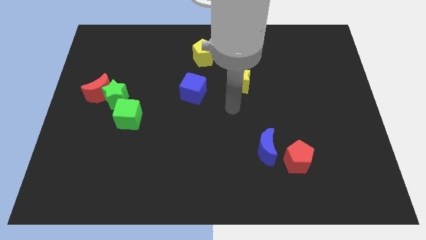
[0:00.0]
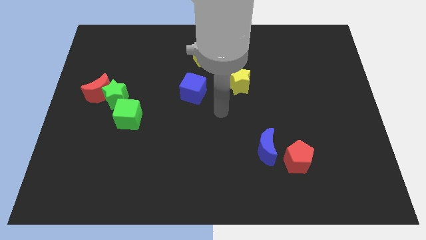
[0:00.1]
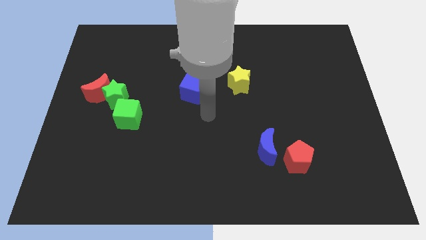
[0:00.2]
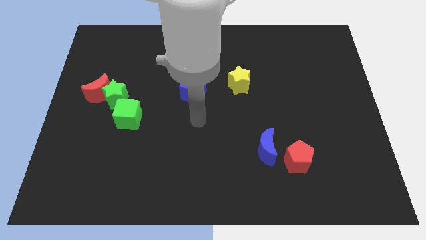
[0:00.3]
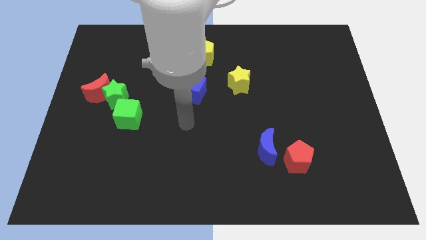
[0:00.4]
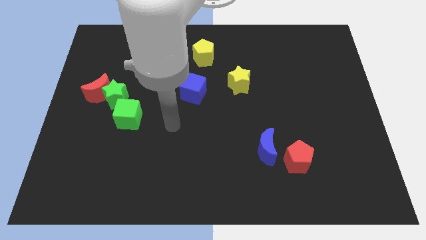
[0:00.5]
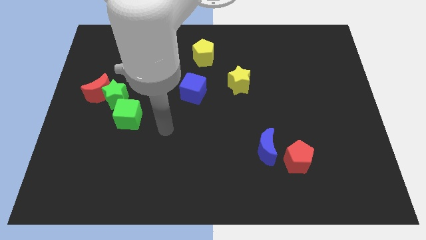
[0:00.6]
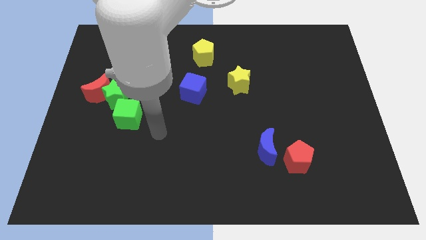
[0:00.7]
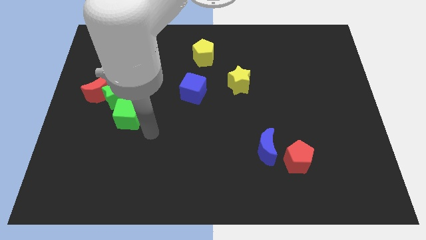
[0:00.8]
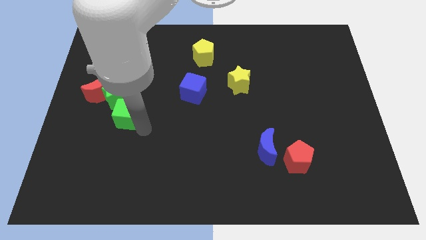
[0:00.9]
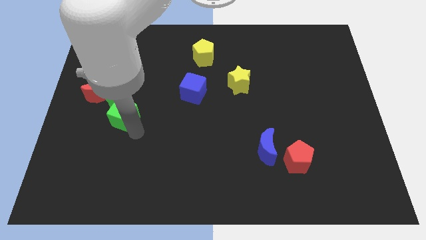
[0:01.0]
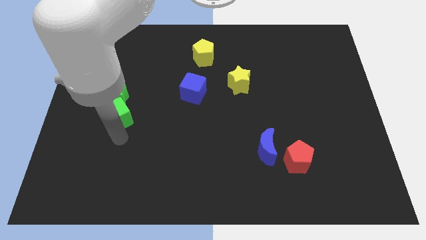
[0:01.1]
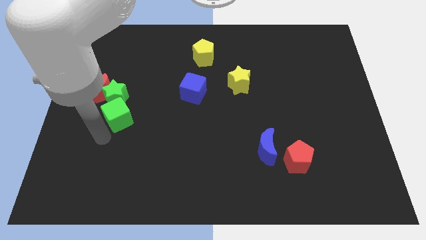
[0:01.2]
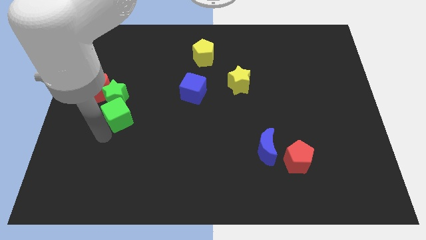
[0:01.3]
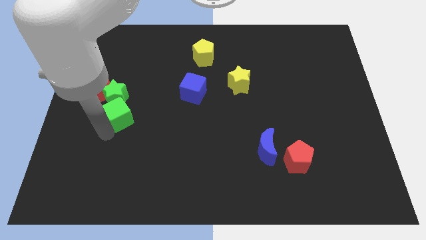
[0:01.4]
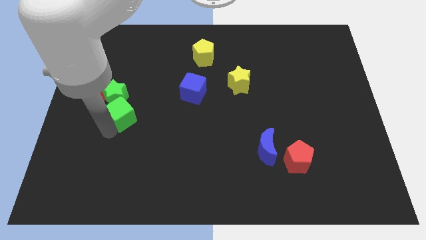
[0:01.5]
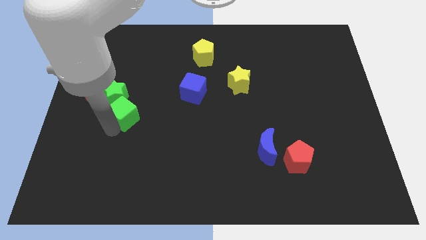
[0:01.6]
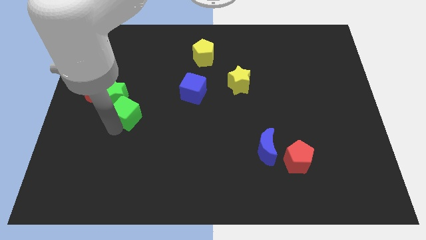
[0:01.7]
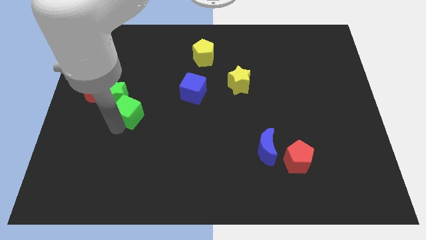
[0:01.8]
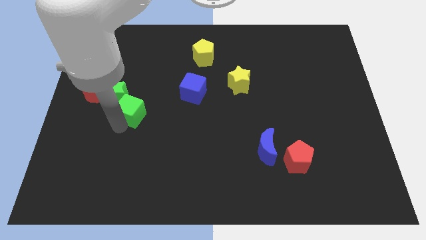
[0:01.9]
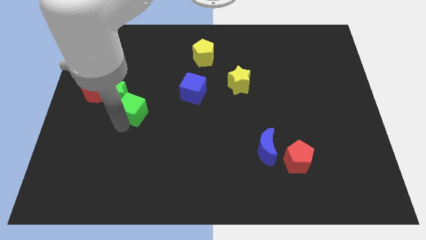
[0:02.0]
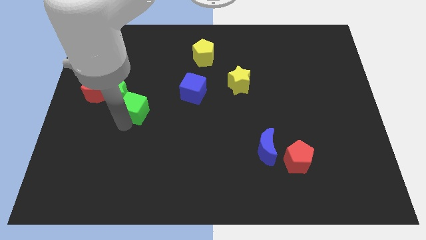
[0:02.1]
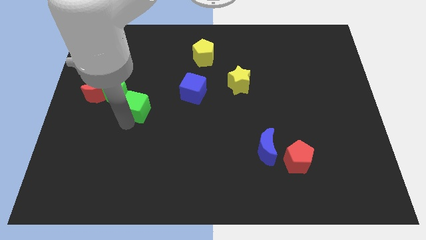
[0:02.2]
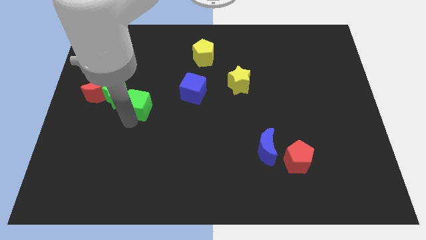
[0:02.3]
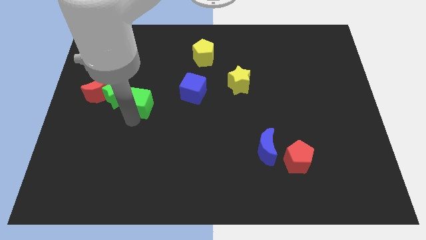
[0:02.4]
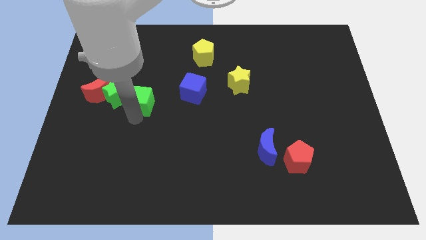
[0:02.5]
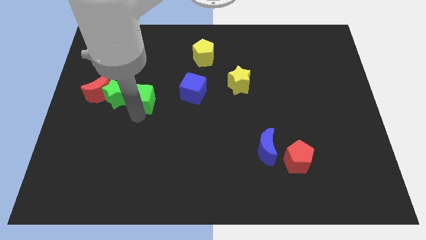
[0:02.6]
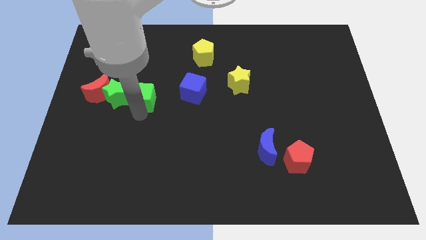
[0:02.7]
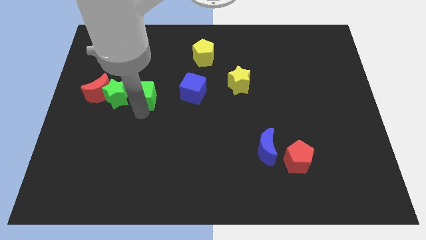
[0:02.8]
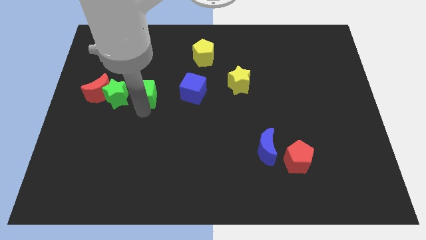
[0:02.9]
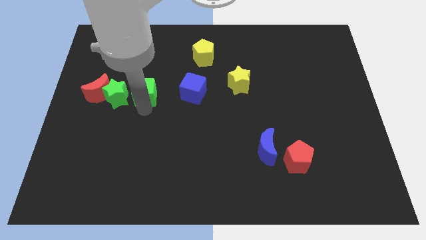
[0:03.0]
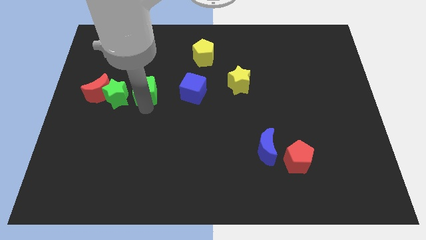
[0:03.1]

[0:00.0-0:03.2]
push the green cube a bit upwards

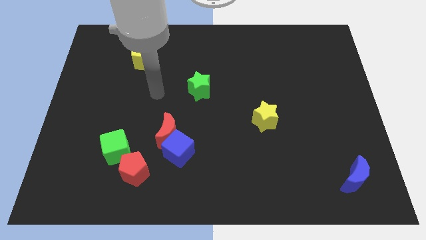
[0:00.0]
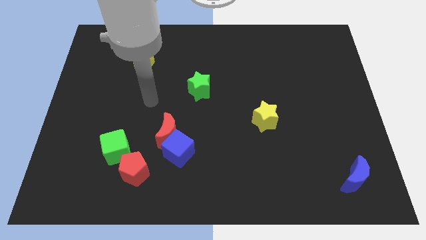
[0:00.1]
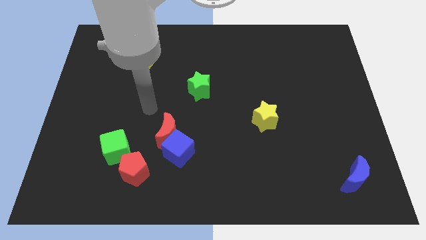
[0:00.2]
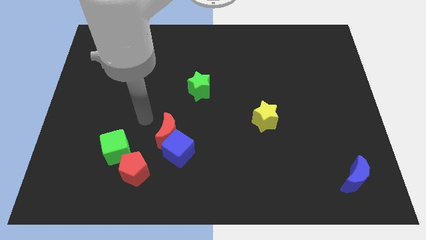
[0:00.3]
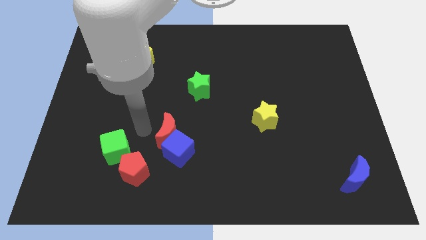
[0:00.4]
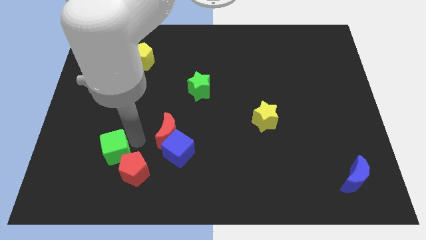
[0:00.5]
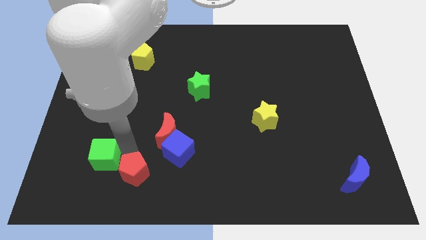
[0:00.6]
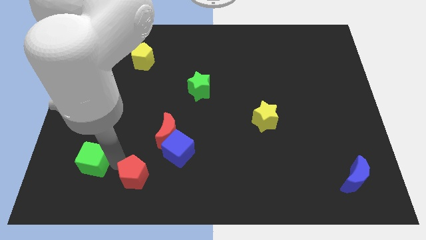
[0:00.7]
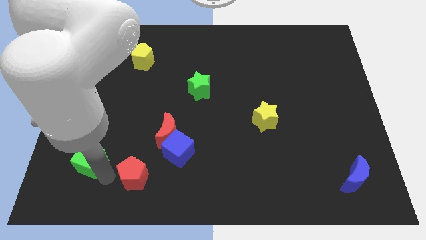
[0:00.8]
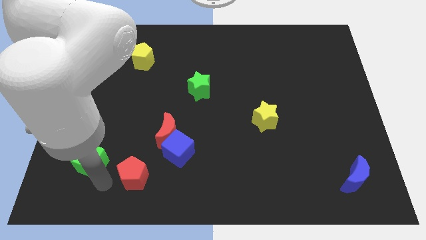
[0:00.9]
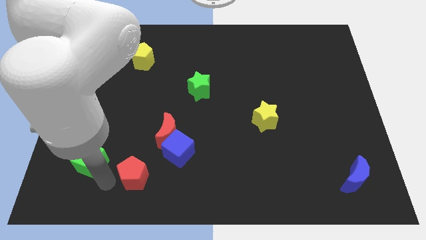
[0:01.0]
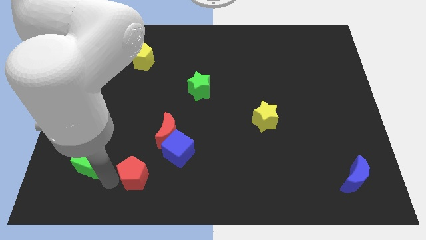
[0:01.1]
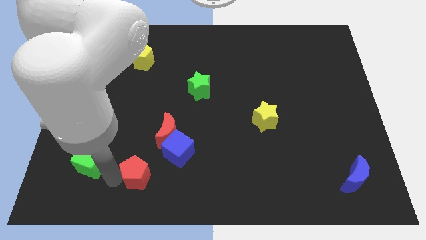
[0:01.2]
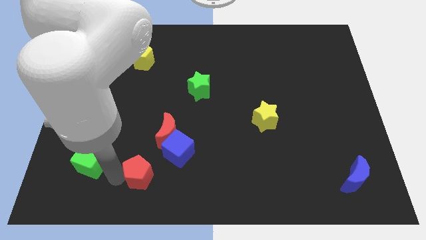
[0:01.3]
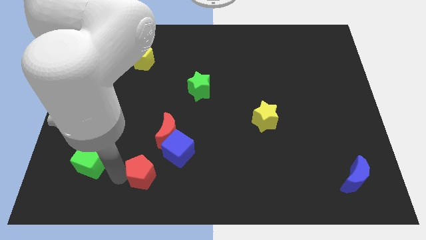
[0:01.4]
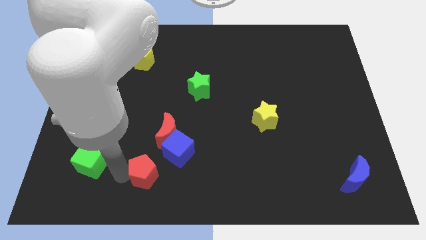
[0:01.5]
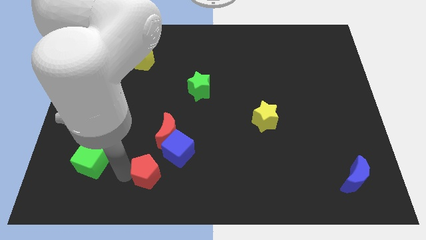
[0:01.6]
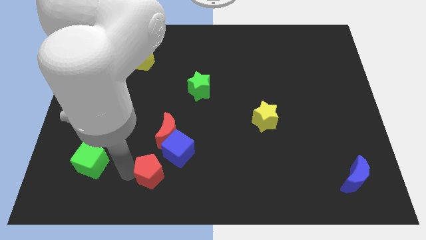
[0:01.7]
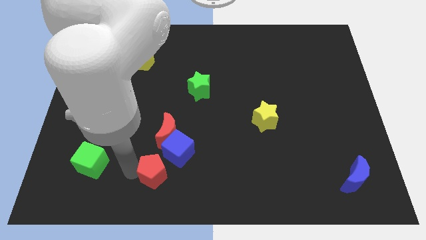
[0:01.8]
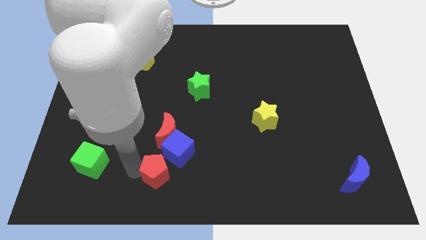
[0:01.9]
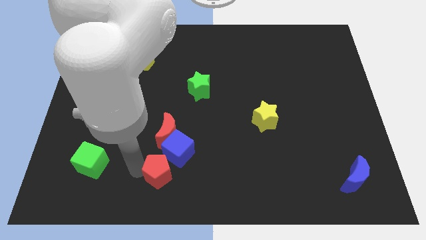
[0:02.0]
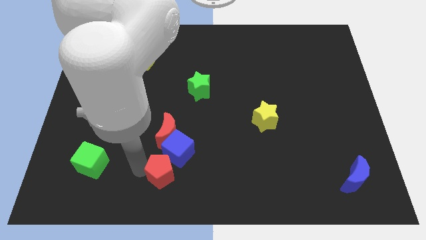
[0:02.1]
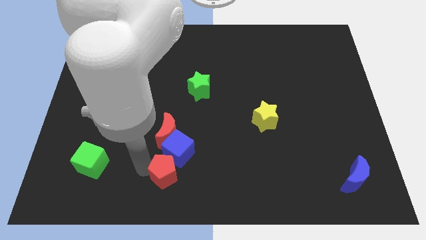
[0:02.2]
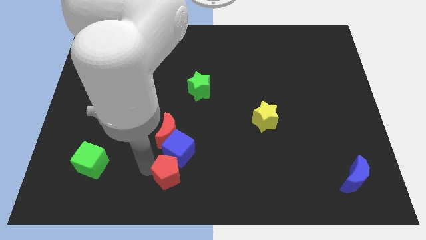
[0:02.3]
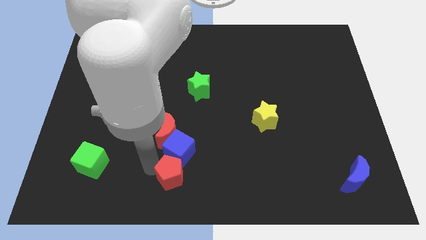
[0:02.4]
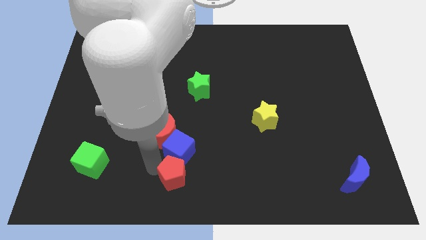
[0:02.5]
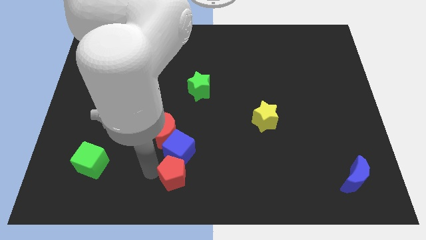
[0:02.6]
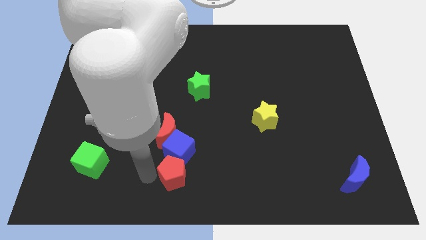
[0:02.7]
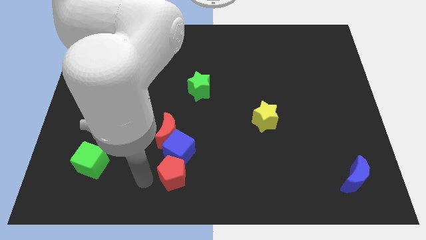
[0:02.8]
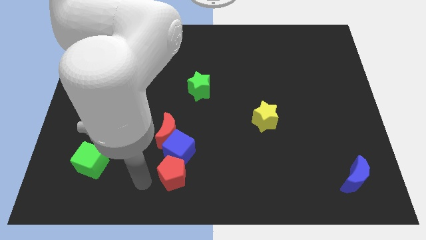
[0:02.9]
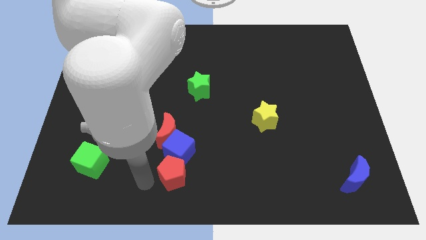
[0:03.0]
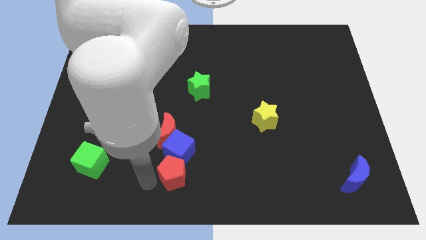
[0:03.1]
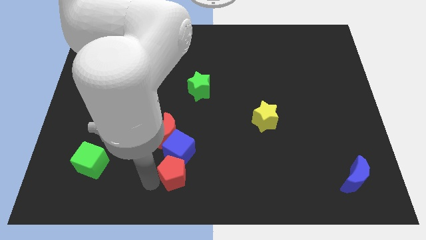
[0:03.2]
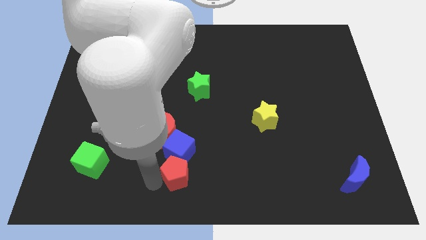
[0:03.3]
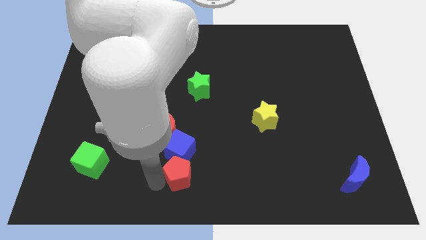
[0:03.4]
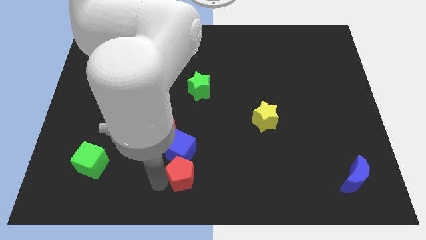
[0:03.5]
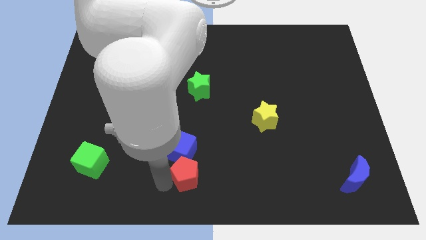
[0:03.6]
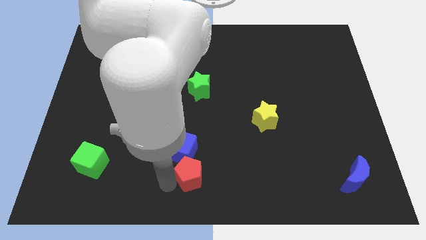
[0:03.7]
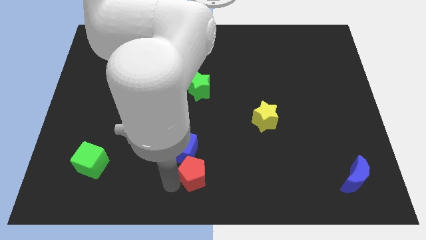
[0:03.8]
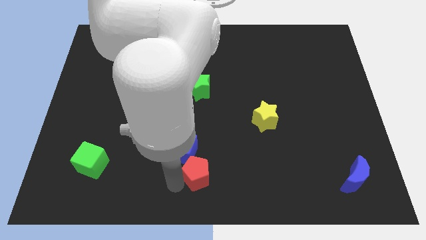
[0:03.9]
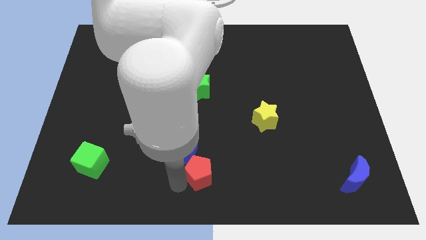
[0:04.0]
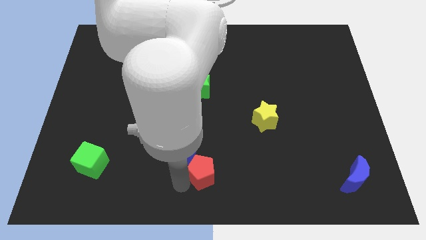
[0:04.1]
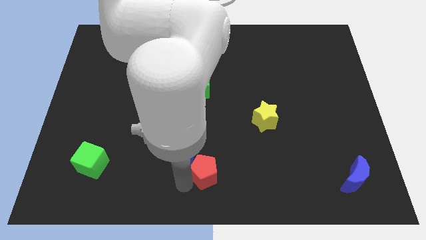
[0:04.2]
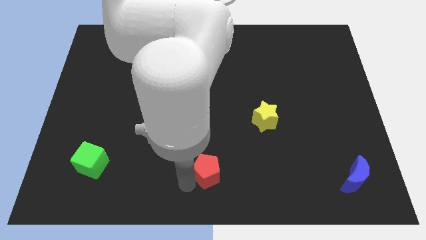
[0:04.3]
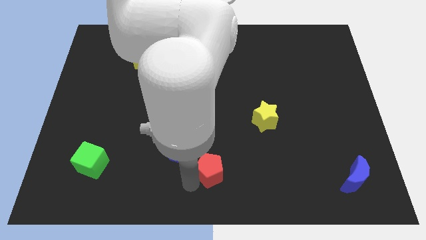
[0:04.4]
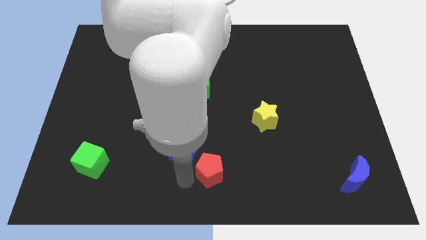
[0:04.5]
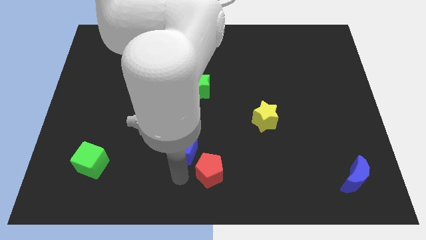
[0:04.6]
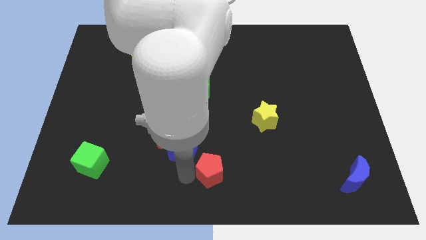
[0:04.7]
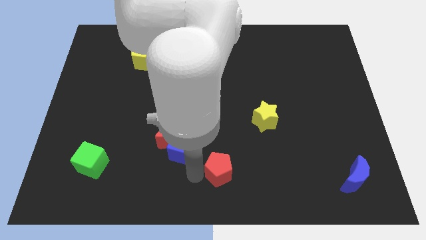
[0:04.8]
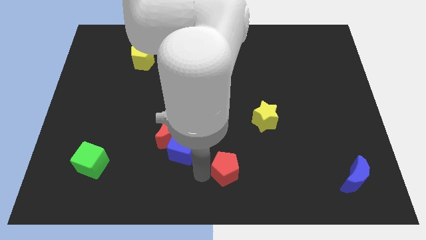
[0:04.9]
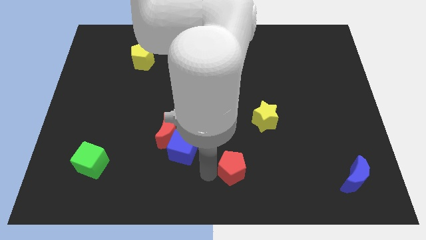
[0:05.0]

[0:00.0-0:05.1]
push the red pentagon right
